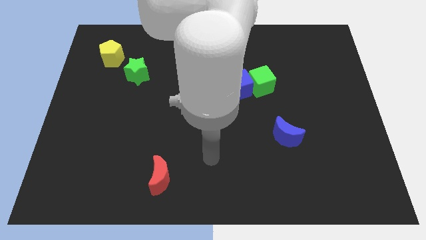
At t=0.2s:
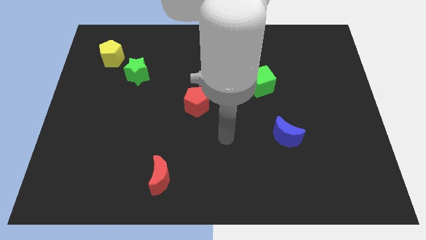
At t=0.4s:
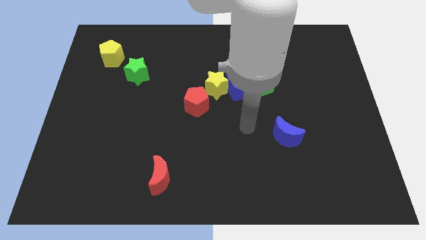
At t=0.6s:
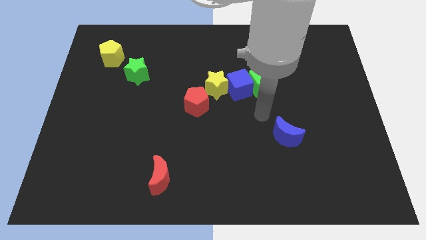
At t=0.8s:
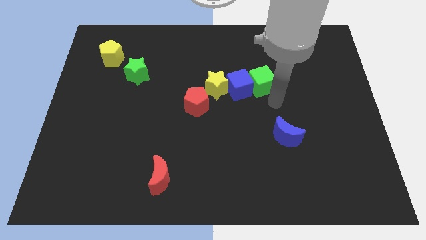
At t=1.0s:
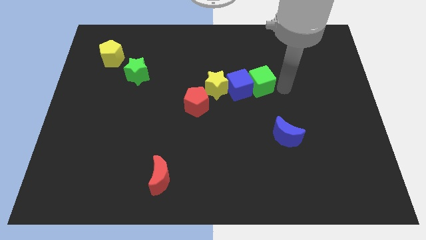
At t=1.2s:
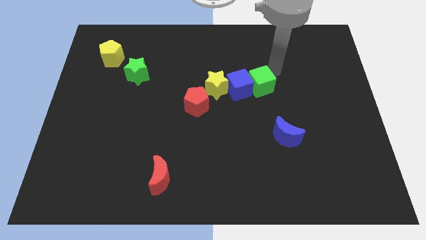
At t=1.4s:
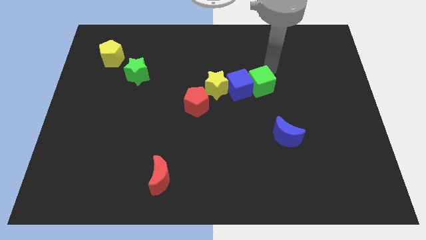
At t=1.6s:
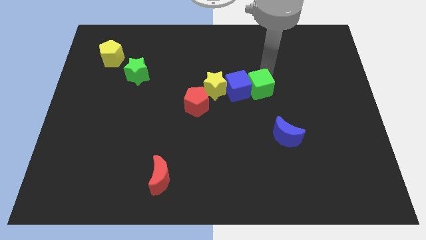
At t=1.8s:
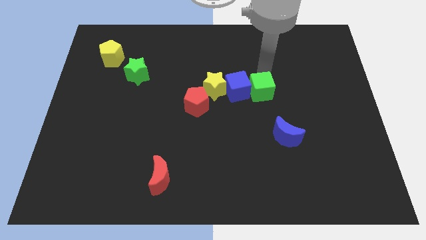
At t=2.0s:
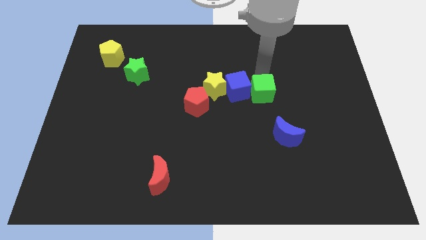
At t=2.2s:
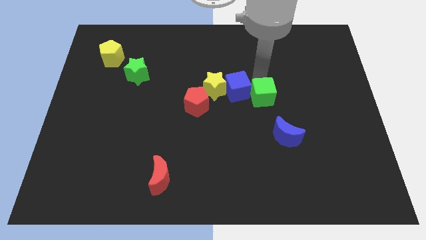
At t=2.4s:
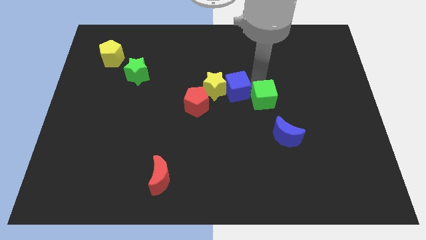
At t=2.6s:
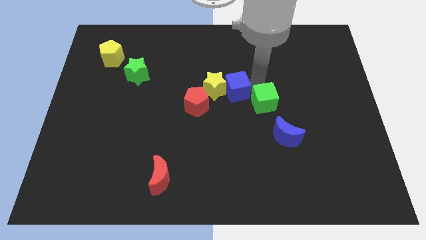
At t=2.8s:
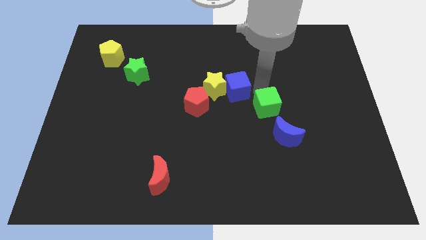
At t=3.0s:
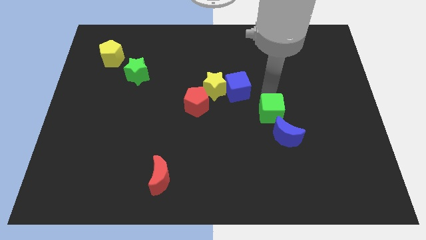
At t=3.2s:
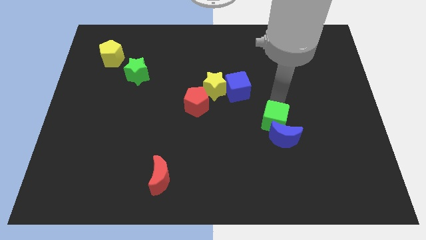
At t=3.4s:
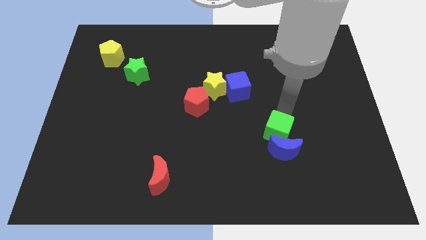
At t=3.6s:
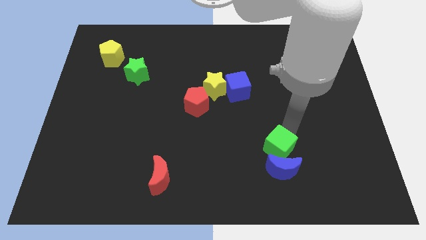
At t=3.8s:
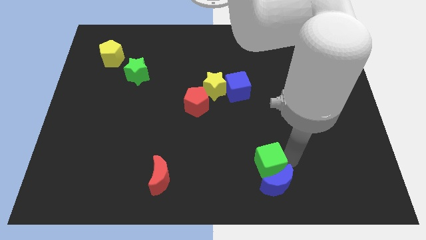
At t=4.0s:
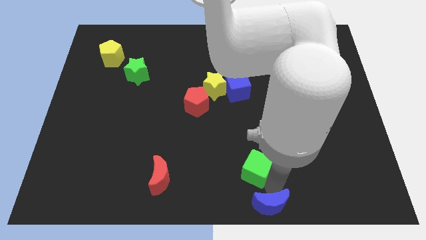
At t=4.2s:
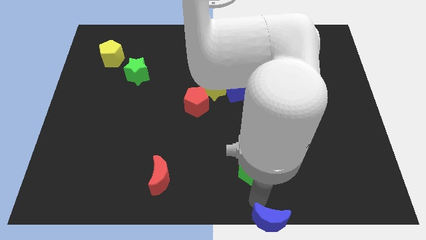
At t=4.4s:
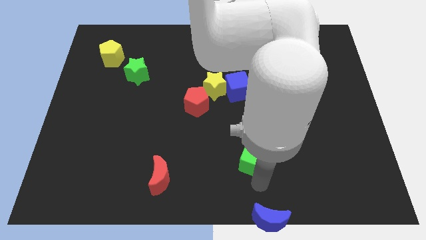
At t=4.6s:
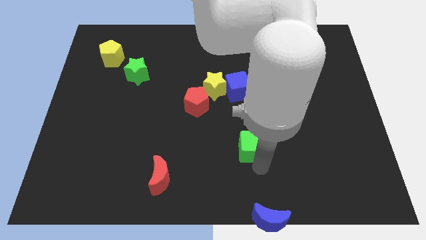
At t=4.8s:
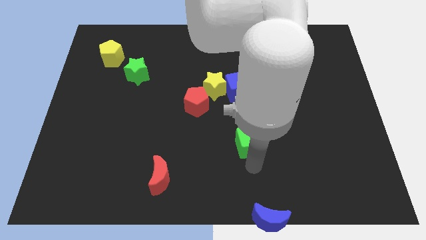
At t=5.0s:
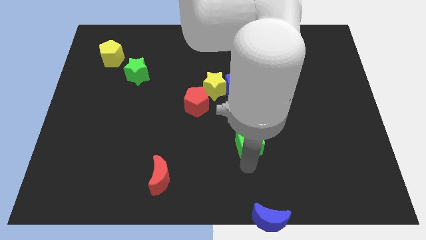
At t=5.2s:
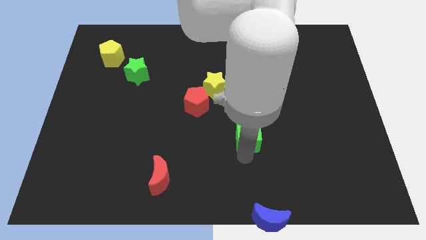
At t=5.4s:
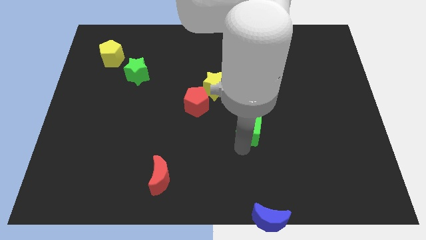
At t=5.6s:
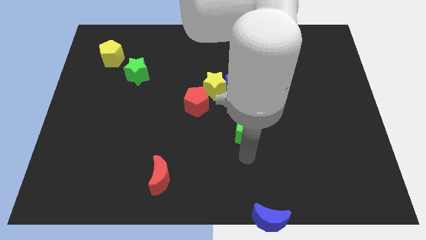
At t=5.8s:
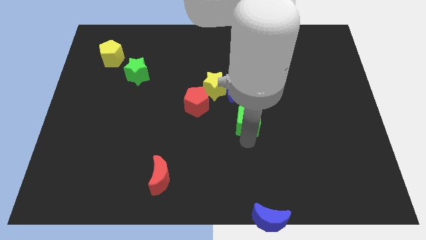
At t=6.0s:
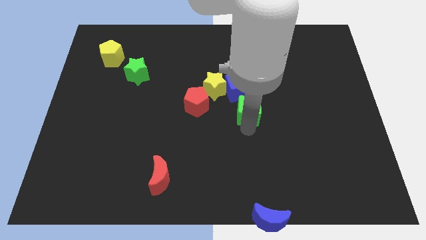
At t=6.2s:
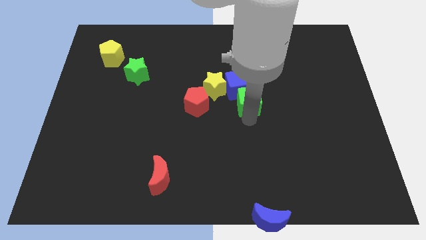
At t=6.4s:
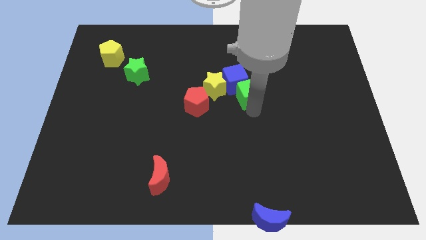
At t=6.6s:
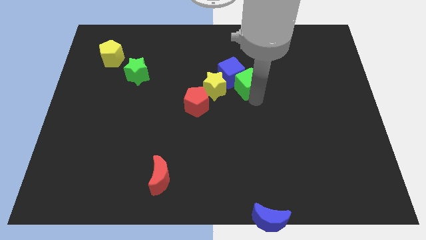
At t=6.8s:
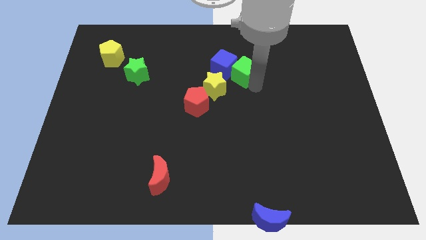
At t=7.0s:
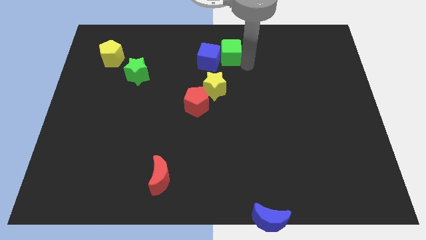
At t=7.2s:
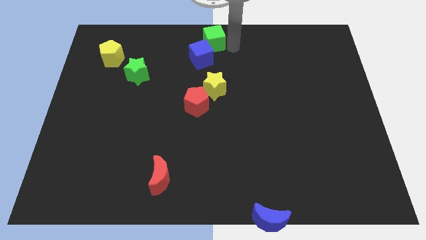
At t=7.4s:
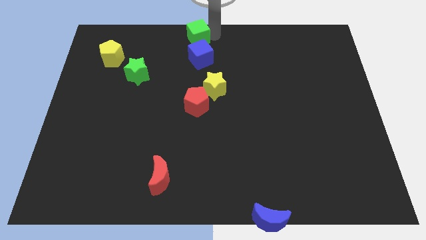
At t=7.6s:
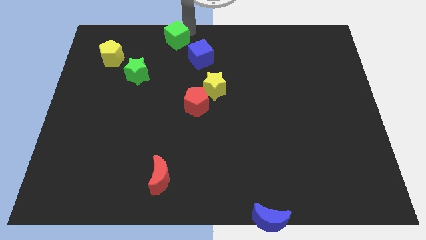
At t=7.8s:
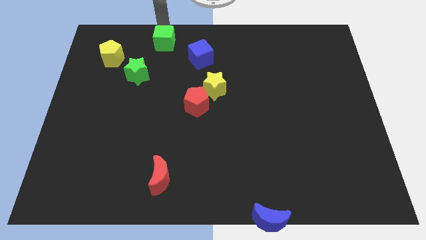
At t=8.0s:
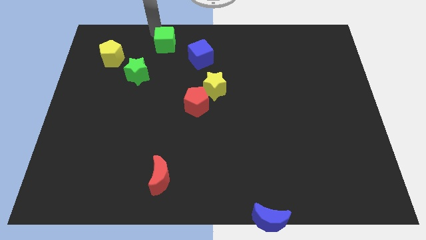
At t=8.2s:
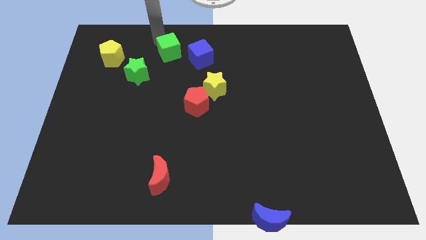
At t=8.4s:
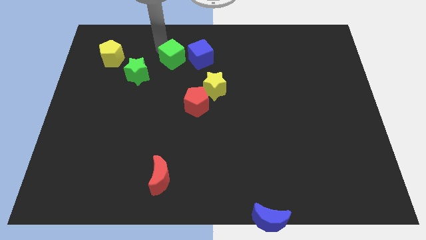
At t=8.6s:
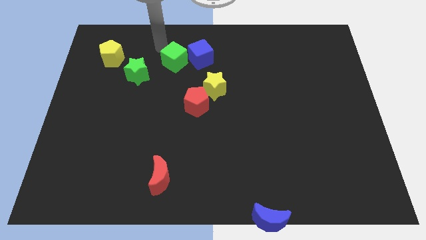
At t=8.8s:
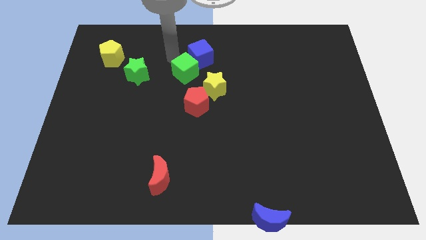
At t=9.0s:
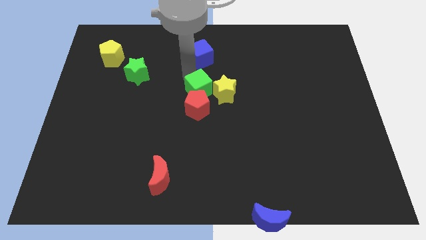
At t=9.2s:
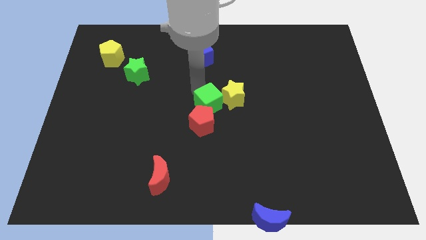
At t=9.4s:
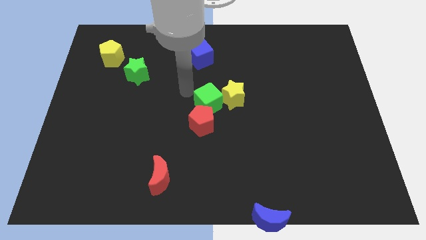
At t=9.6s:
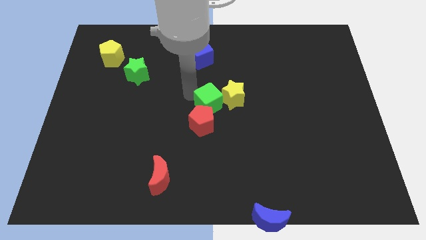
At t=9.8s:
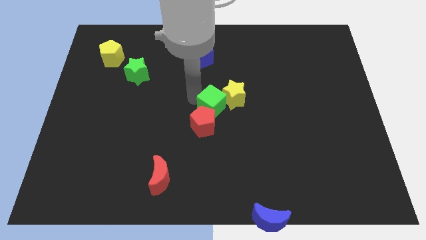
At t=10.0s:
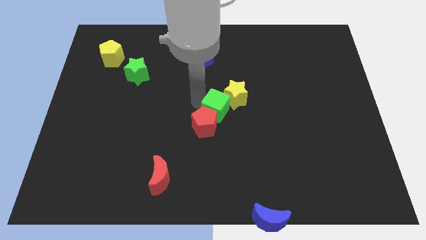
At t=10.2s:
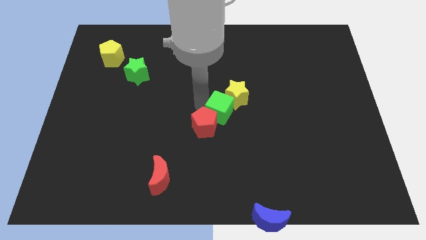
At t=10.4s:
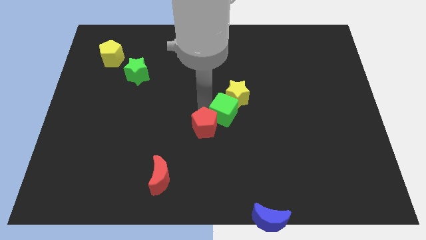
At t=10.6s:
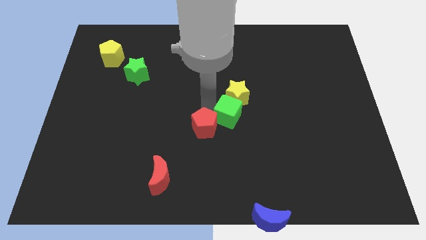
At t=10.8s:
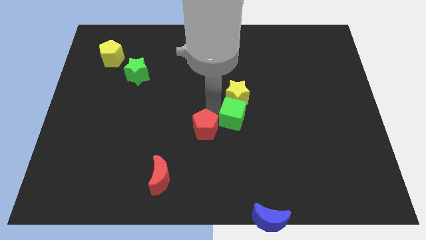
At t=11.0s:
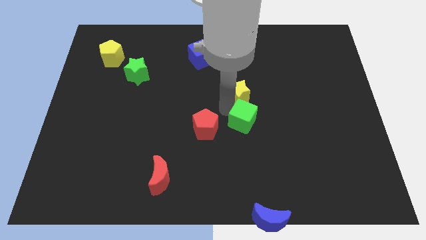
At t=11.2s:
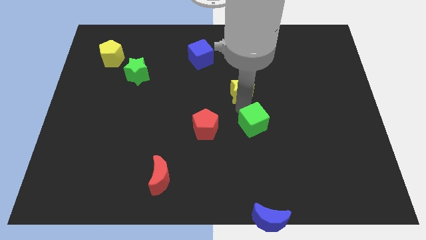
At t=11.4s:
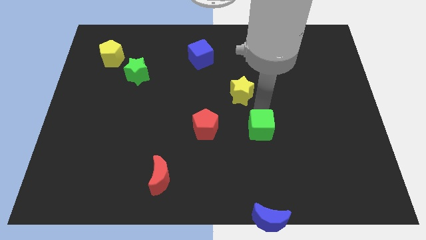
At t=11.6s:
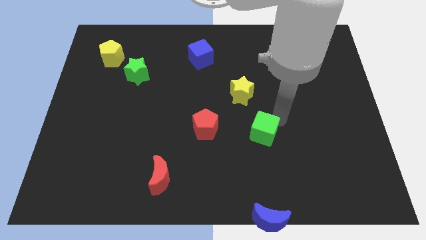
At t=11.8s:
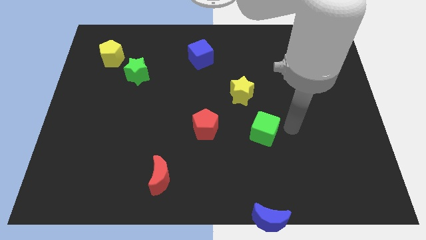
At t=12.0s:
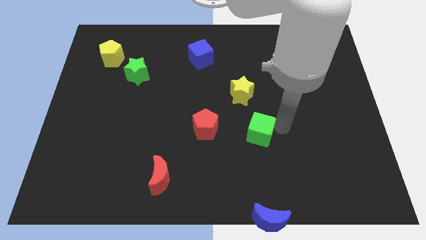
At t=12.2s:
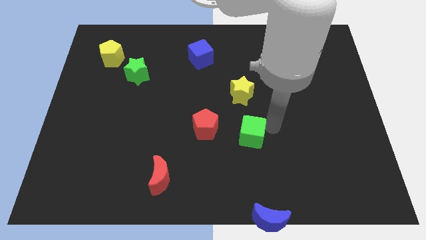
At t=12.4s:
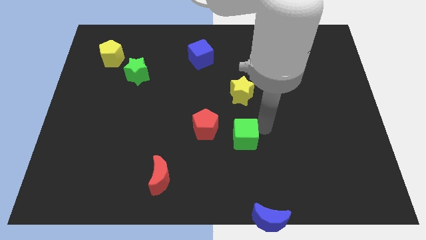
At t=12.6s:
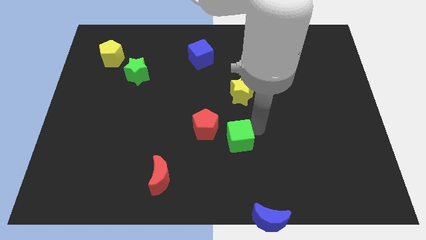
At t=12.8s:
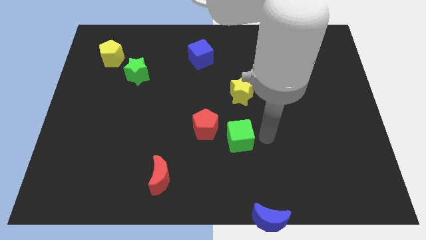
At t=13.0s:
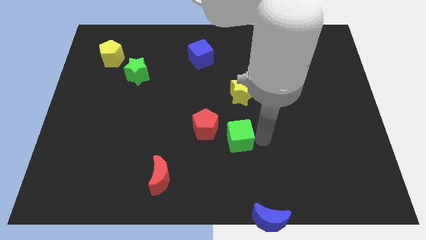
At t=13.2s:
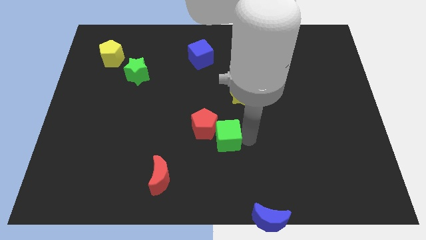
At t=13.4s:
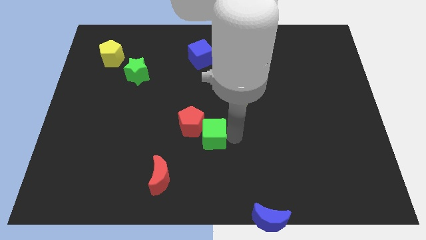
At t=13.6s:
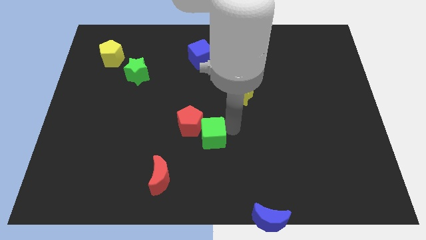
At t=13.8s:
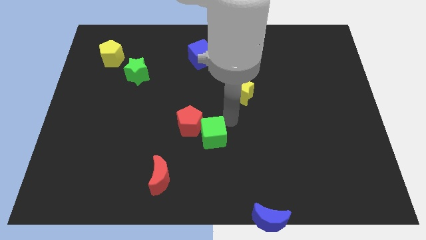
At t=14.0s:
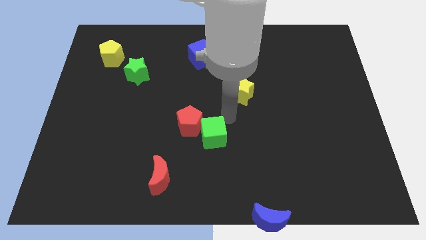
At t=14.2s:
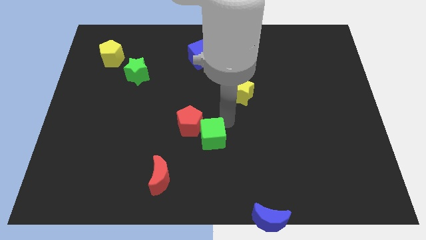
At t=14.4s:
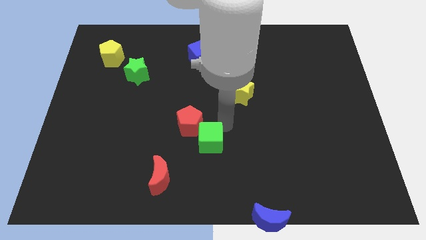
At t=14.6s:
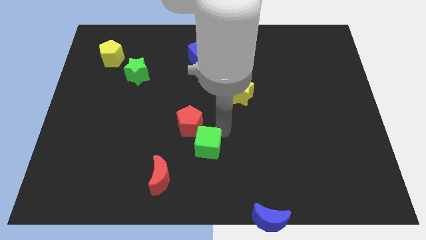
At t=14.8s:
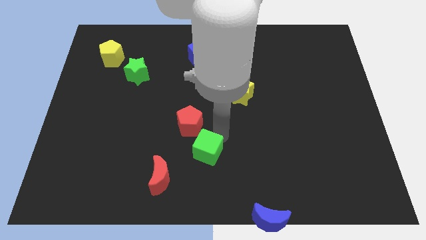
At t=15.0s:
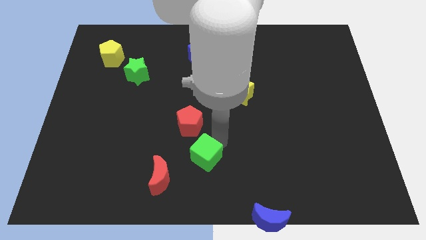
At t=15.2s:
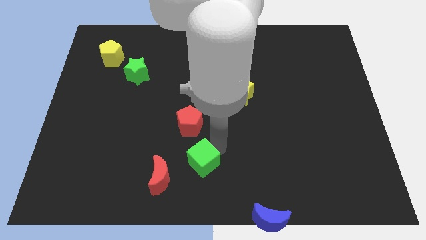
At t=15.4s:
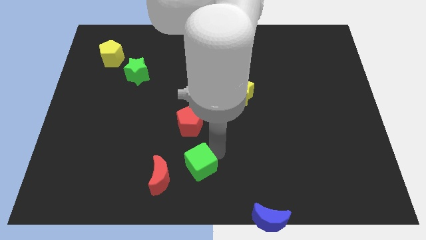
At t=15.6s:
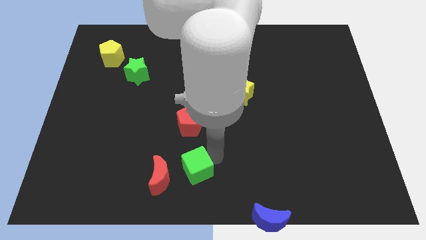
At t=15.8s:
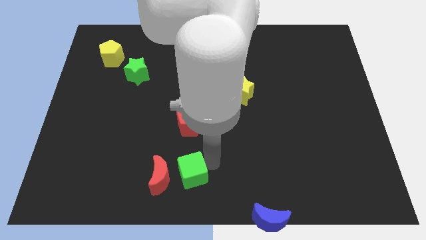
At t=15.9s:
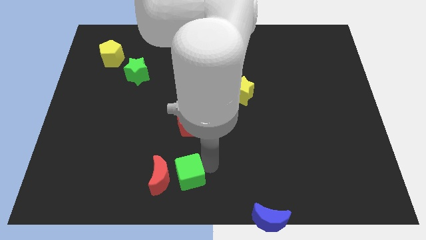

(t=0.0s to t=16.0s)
slide the green cube towards the red moon
